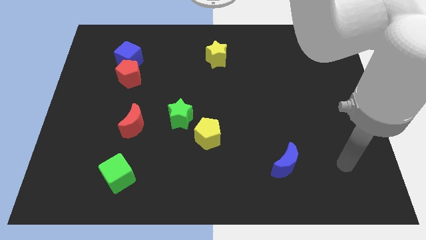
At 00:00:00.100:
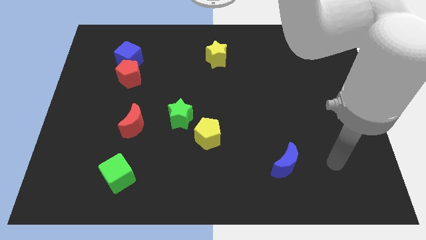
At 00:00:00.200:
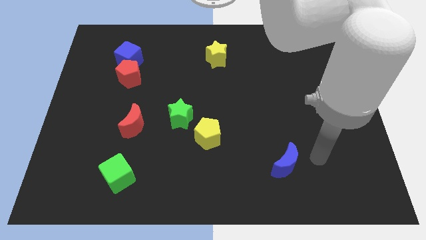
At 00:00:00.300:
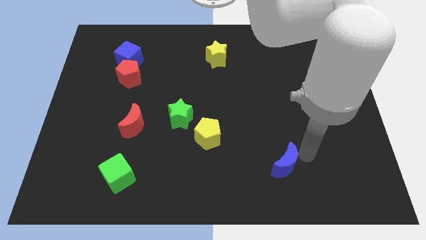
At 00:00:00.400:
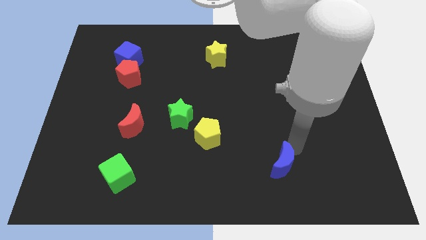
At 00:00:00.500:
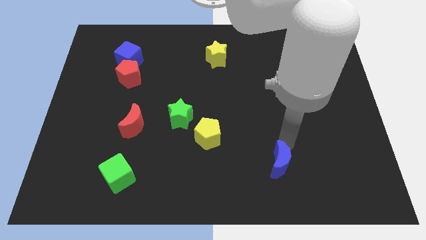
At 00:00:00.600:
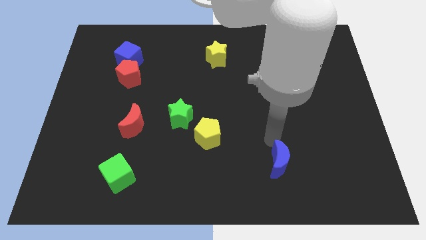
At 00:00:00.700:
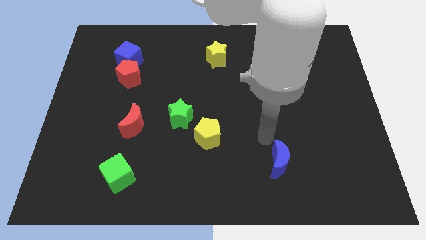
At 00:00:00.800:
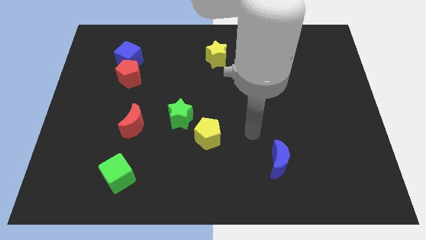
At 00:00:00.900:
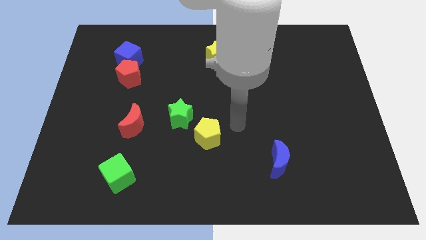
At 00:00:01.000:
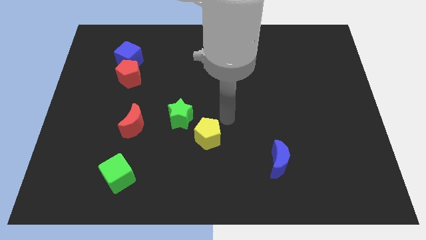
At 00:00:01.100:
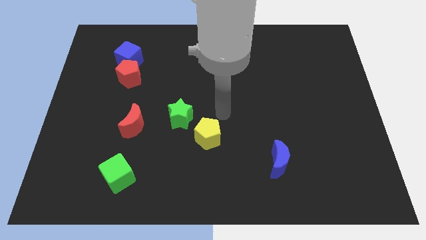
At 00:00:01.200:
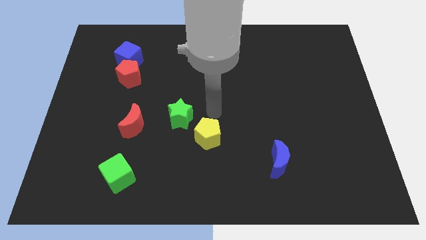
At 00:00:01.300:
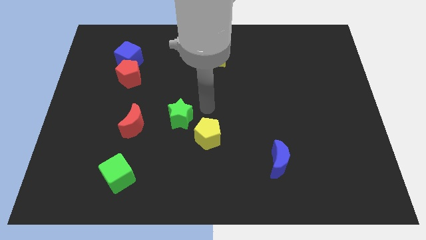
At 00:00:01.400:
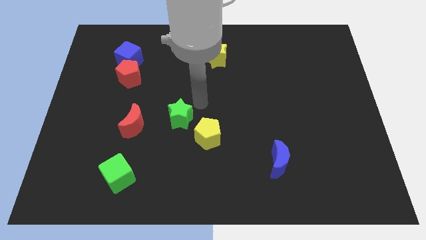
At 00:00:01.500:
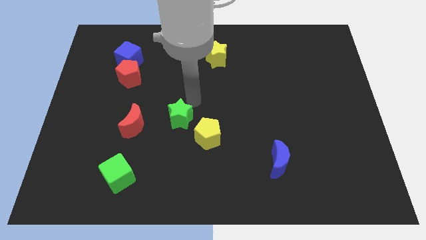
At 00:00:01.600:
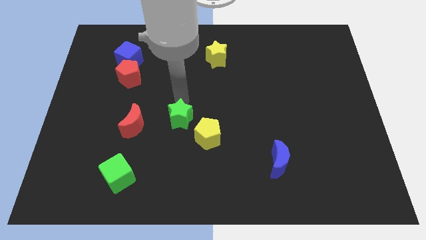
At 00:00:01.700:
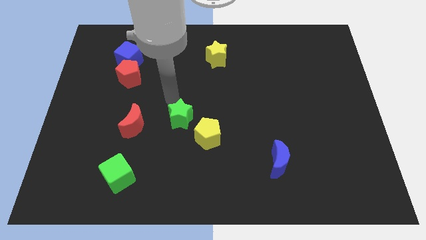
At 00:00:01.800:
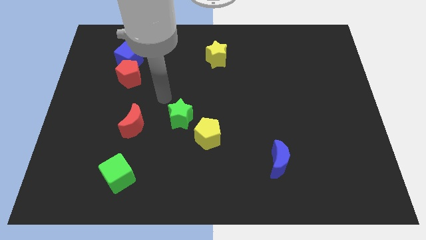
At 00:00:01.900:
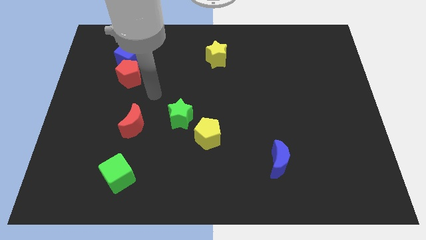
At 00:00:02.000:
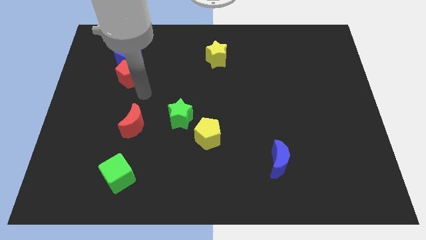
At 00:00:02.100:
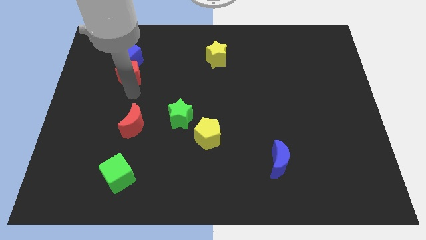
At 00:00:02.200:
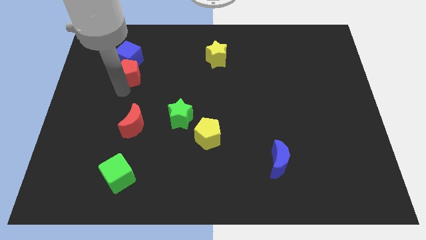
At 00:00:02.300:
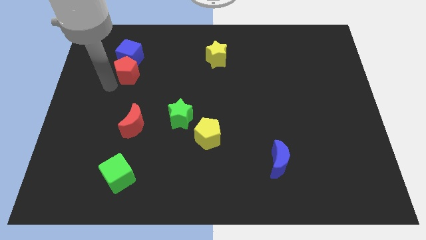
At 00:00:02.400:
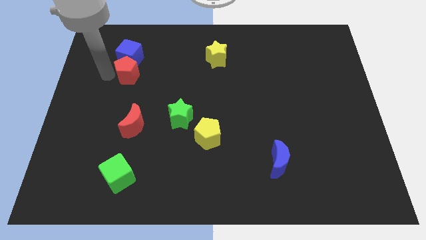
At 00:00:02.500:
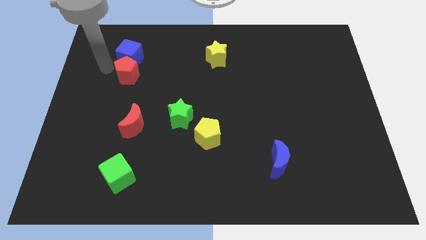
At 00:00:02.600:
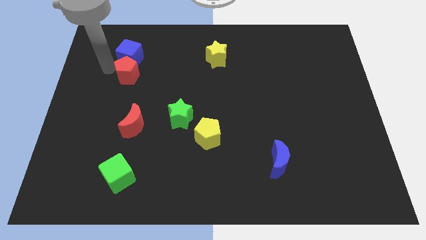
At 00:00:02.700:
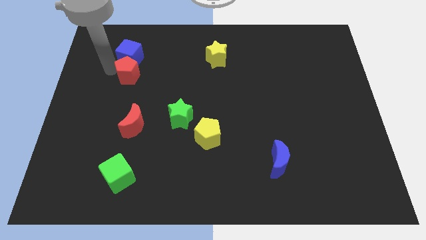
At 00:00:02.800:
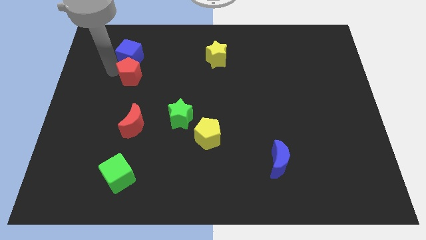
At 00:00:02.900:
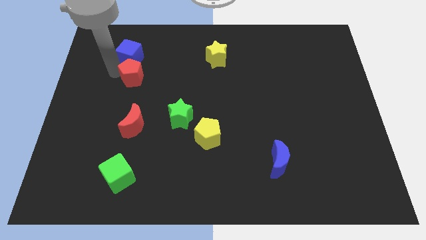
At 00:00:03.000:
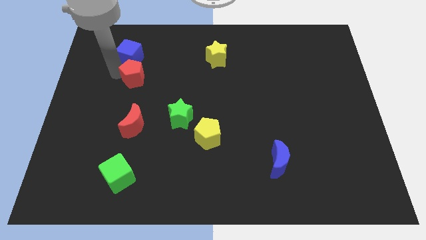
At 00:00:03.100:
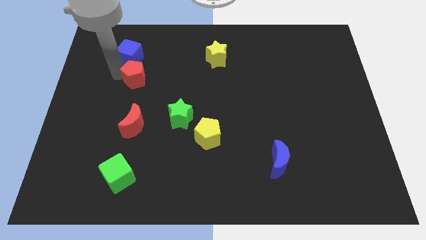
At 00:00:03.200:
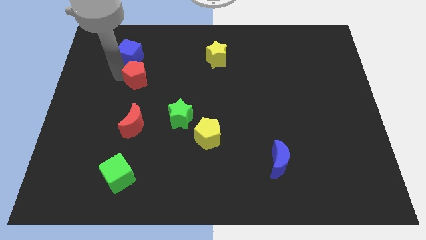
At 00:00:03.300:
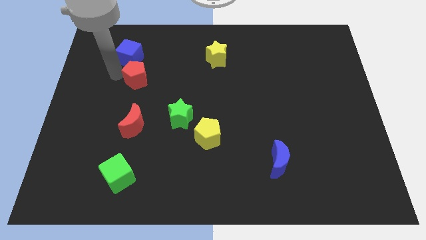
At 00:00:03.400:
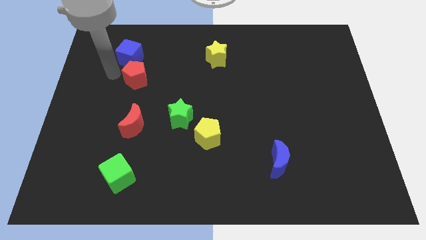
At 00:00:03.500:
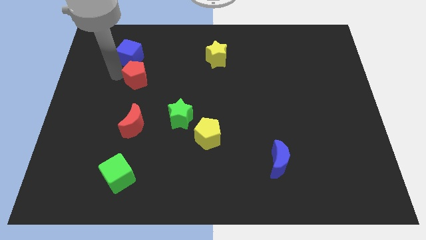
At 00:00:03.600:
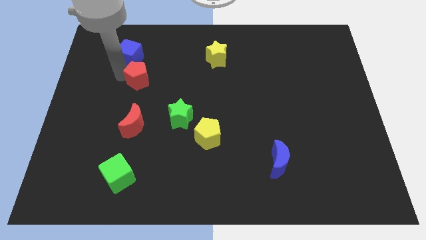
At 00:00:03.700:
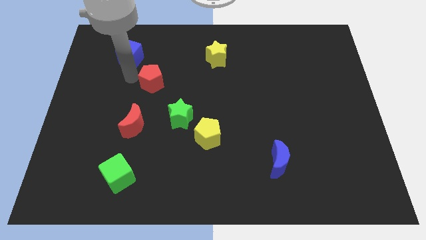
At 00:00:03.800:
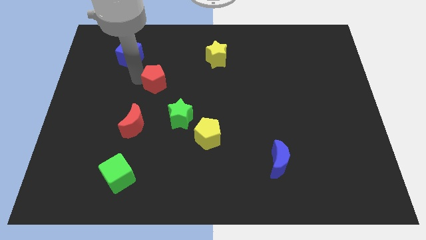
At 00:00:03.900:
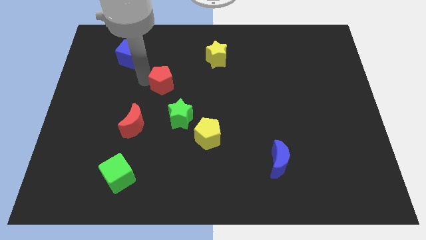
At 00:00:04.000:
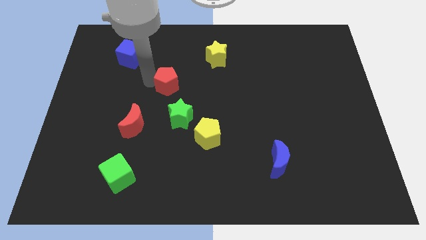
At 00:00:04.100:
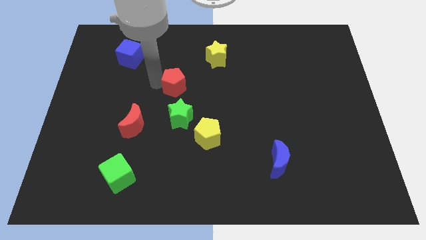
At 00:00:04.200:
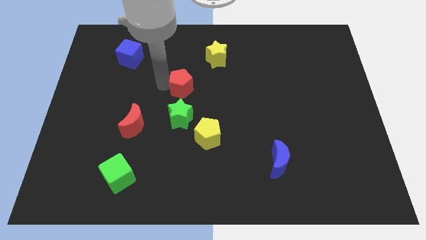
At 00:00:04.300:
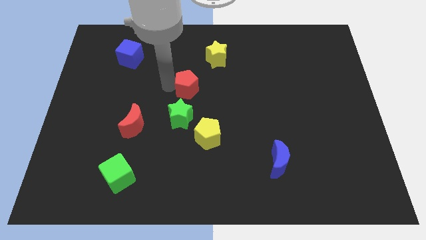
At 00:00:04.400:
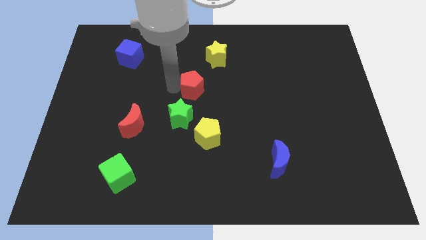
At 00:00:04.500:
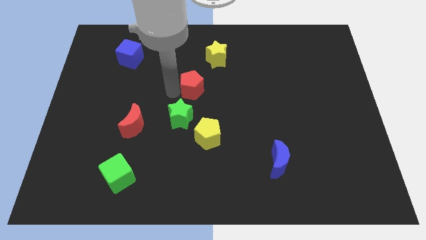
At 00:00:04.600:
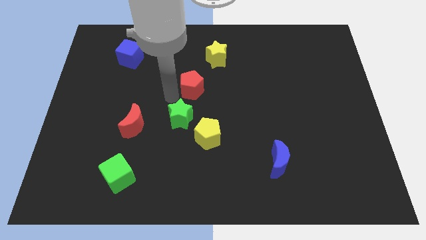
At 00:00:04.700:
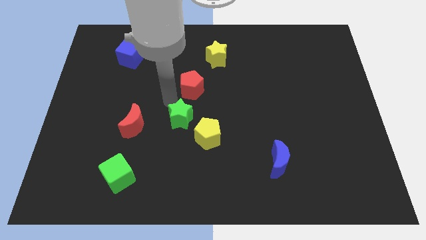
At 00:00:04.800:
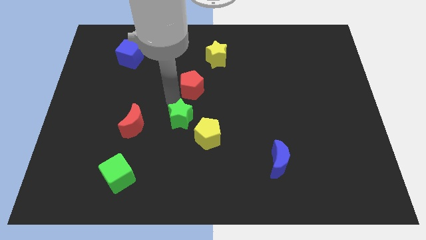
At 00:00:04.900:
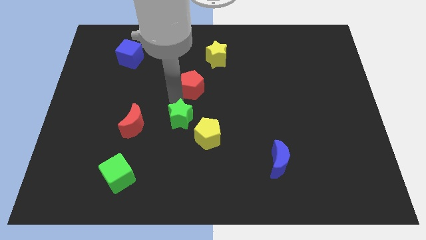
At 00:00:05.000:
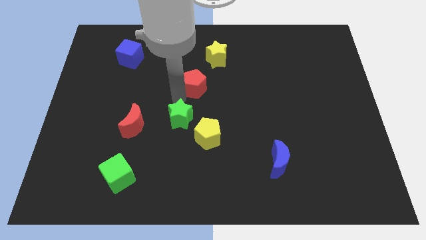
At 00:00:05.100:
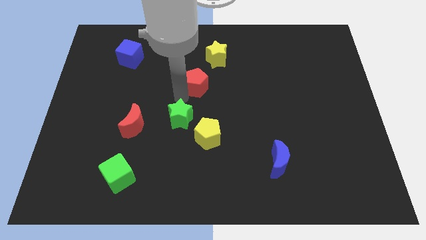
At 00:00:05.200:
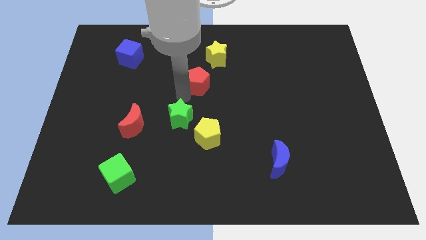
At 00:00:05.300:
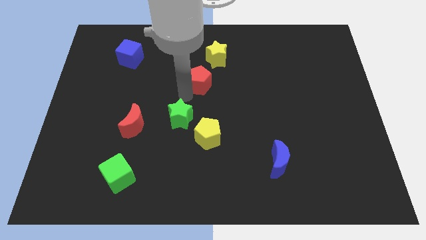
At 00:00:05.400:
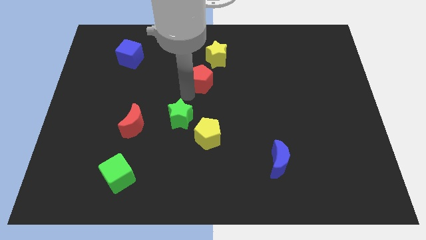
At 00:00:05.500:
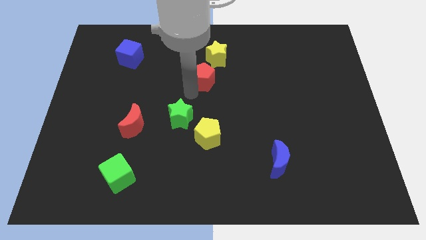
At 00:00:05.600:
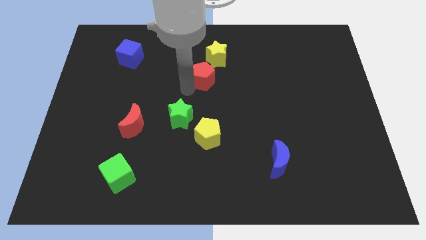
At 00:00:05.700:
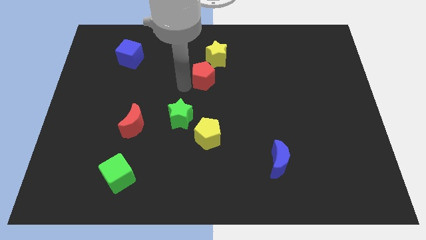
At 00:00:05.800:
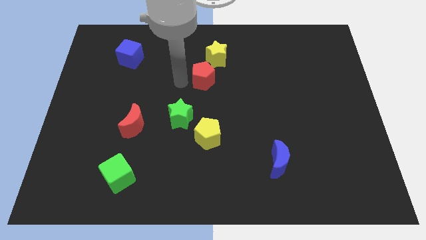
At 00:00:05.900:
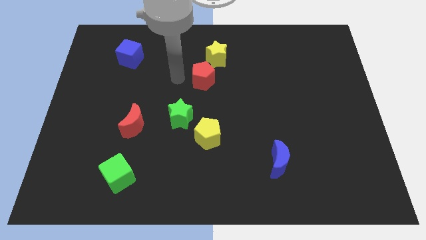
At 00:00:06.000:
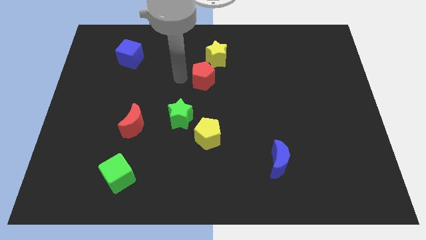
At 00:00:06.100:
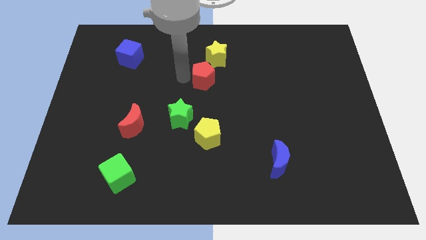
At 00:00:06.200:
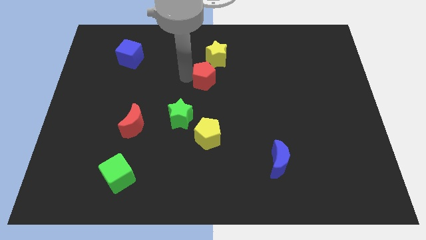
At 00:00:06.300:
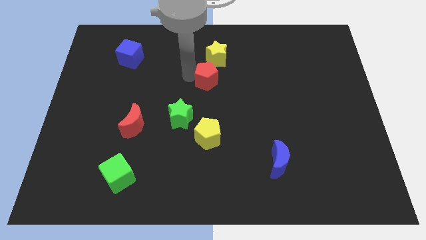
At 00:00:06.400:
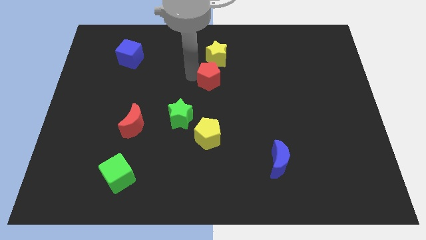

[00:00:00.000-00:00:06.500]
move the red pentagon right

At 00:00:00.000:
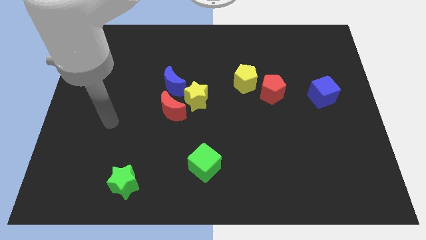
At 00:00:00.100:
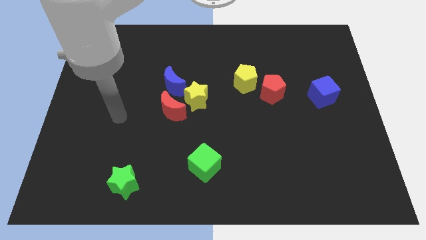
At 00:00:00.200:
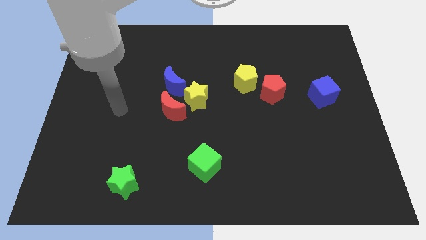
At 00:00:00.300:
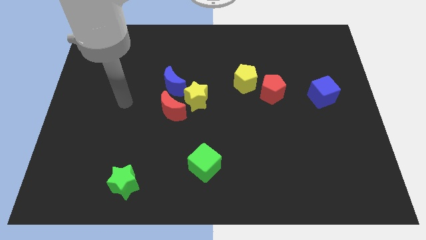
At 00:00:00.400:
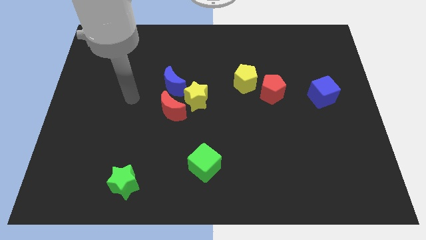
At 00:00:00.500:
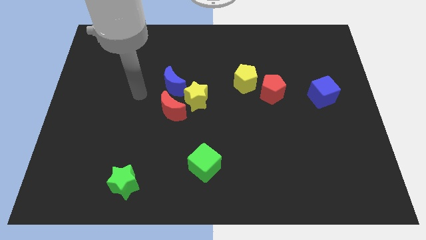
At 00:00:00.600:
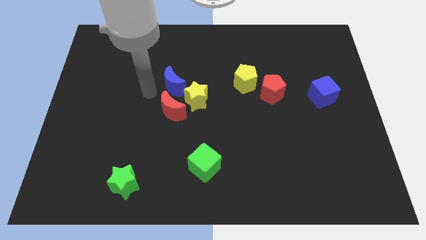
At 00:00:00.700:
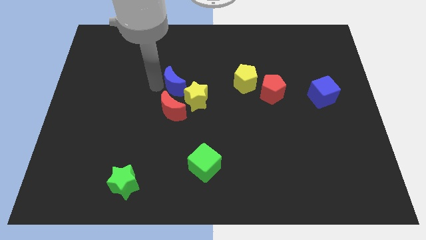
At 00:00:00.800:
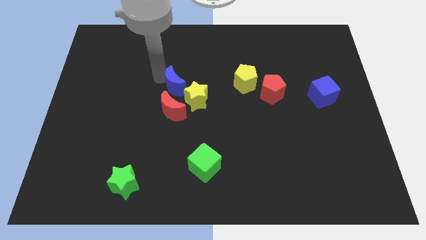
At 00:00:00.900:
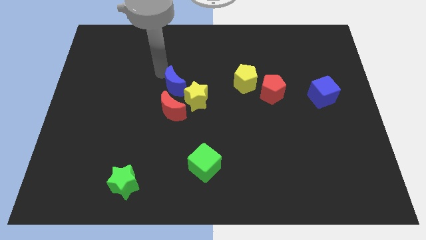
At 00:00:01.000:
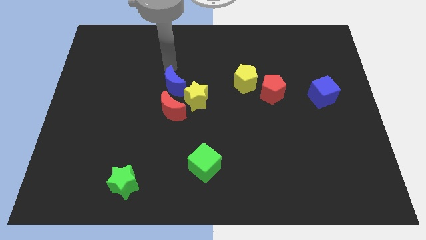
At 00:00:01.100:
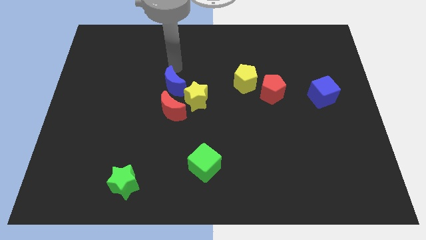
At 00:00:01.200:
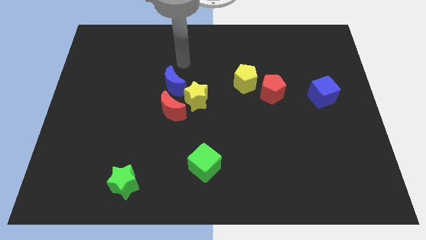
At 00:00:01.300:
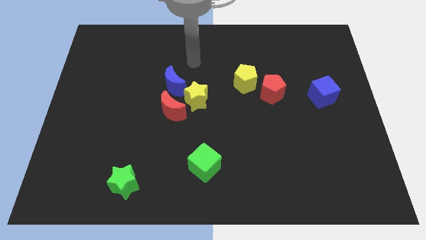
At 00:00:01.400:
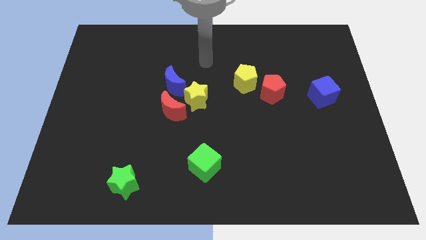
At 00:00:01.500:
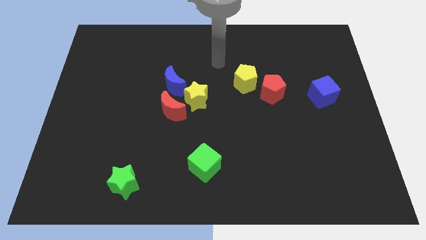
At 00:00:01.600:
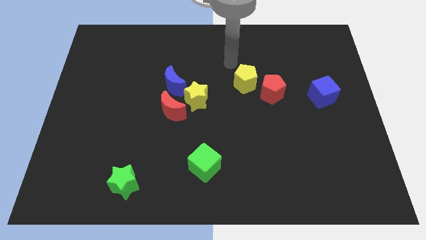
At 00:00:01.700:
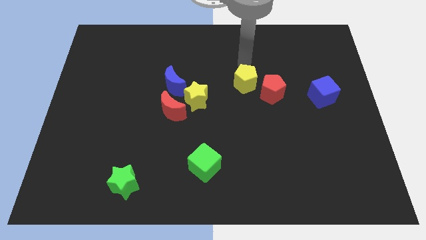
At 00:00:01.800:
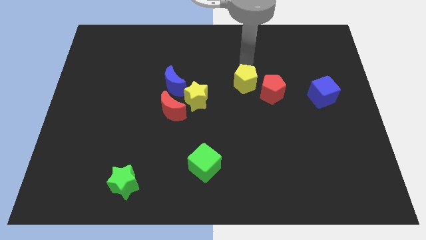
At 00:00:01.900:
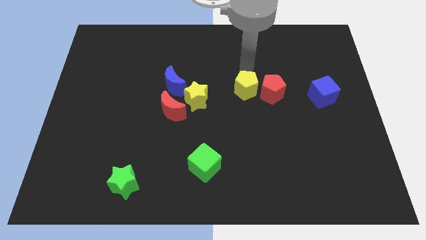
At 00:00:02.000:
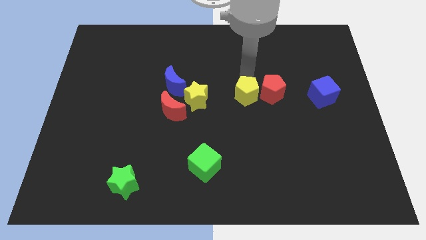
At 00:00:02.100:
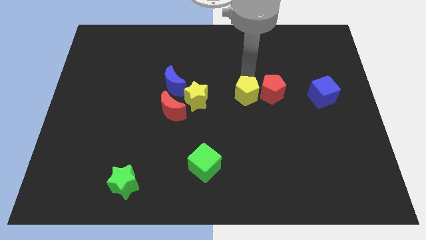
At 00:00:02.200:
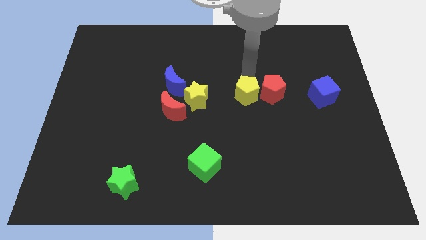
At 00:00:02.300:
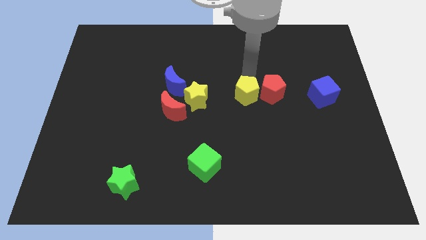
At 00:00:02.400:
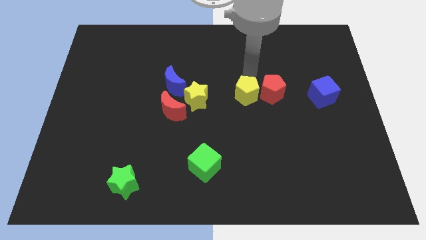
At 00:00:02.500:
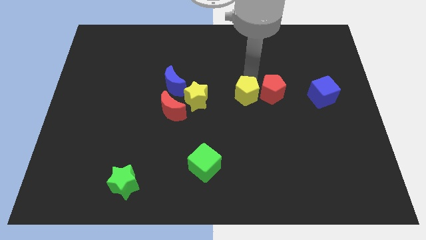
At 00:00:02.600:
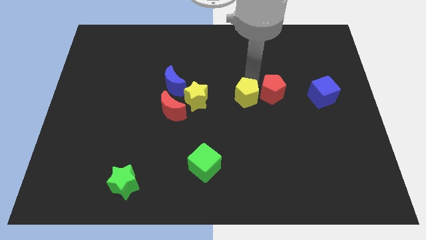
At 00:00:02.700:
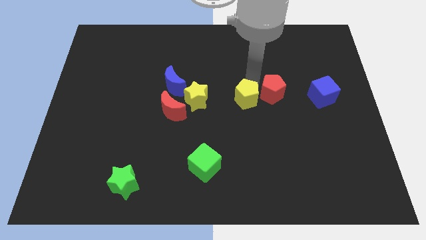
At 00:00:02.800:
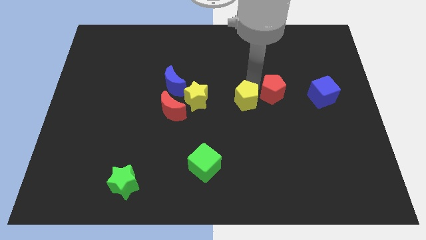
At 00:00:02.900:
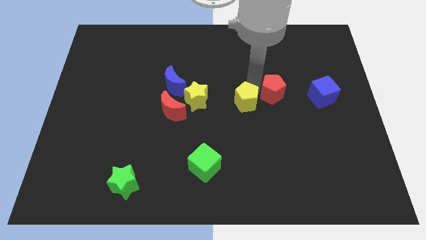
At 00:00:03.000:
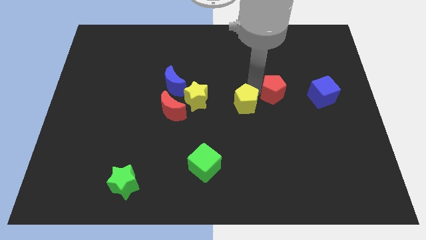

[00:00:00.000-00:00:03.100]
push the yellow pentagon somewhat downwards
